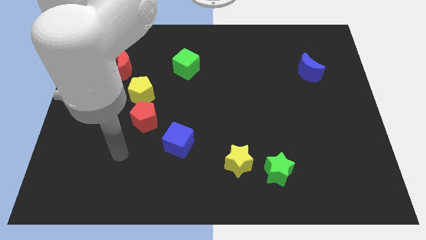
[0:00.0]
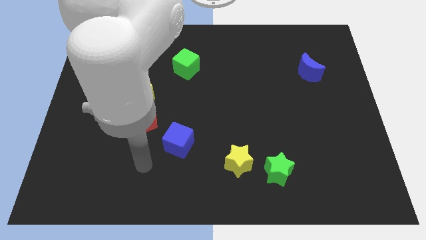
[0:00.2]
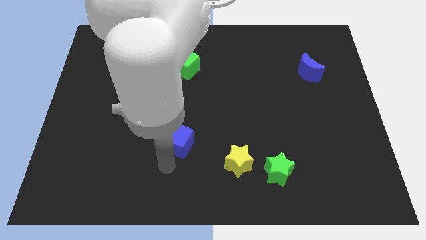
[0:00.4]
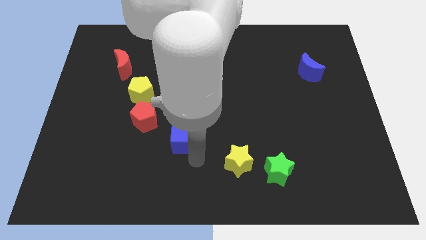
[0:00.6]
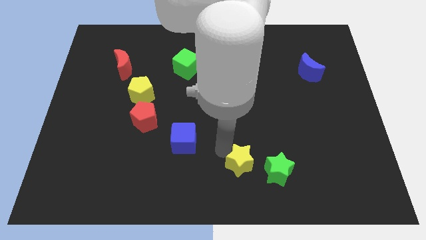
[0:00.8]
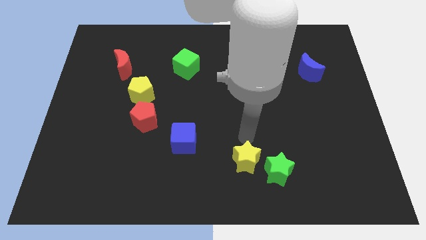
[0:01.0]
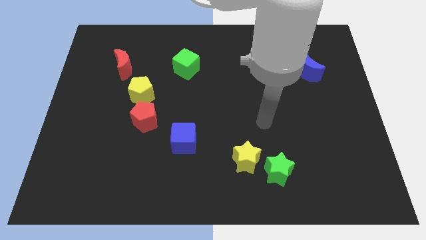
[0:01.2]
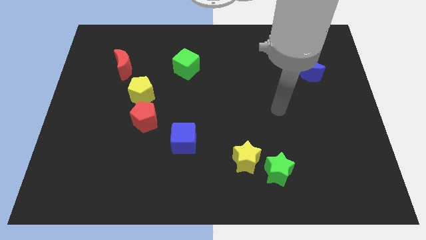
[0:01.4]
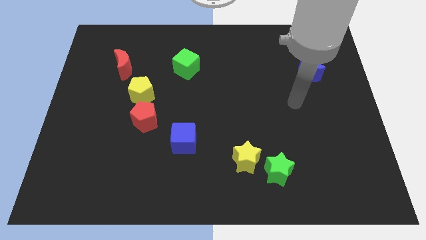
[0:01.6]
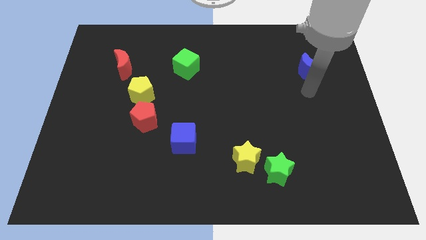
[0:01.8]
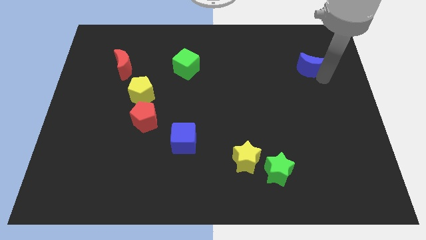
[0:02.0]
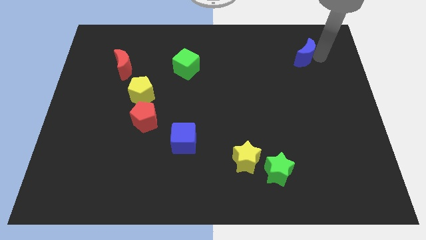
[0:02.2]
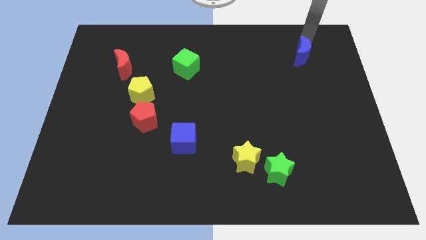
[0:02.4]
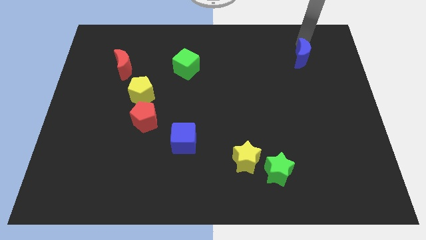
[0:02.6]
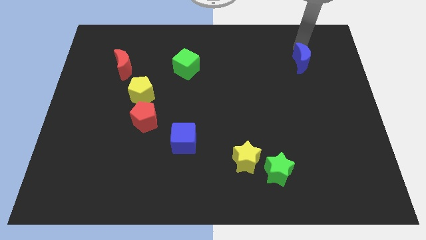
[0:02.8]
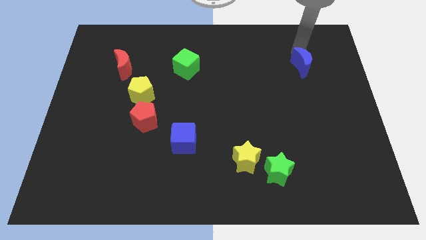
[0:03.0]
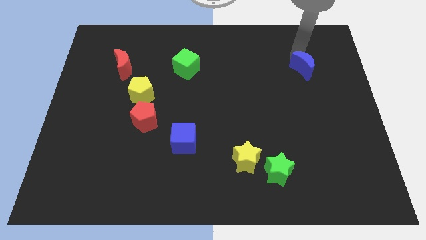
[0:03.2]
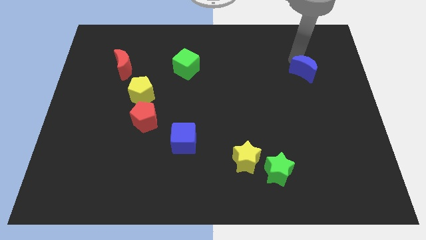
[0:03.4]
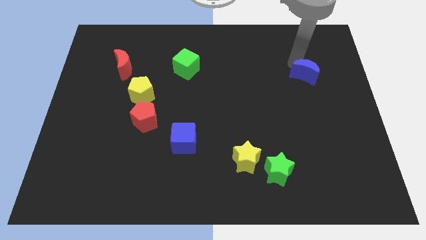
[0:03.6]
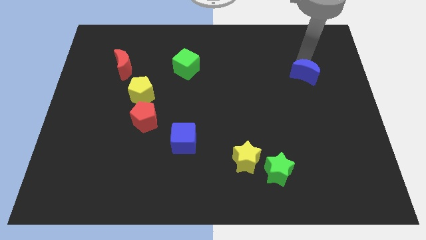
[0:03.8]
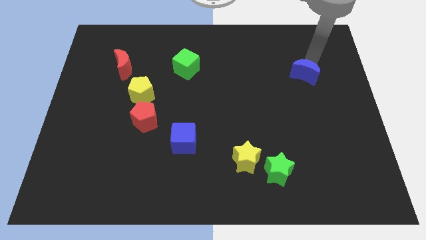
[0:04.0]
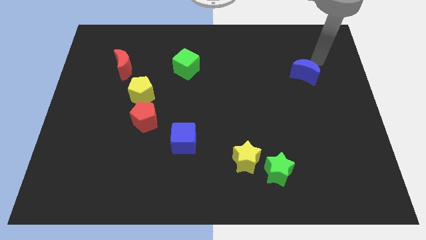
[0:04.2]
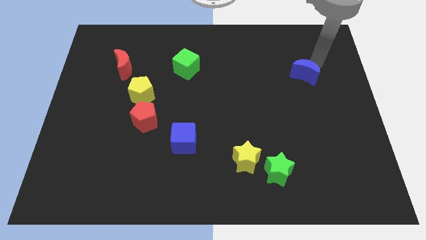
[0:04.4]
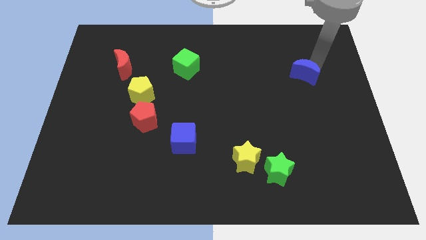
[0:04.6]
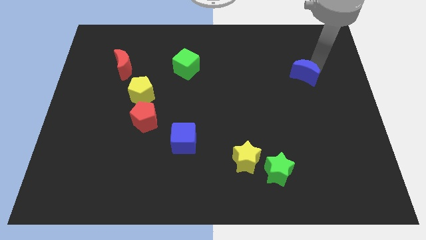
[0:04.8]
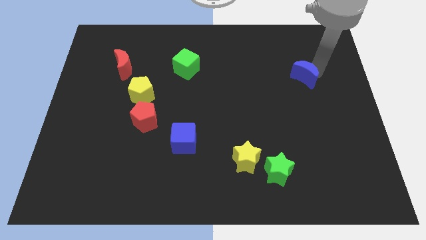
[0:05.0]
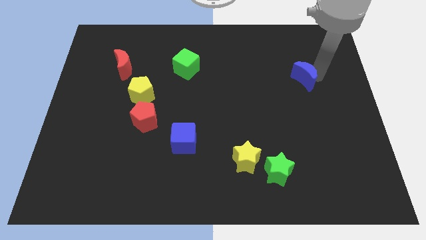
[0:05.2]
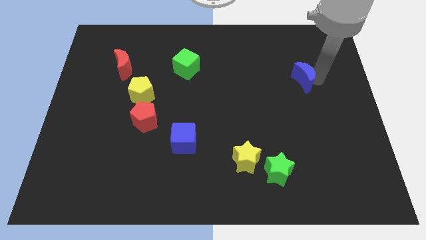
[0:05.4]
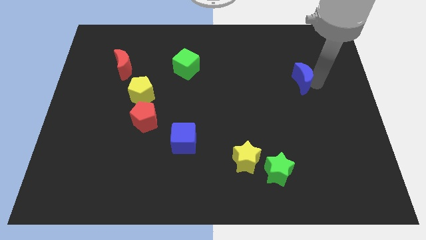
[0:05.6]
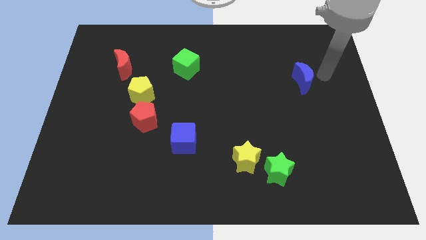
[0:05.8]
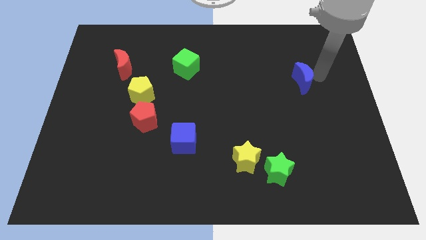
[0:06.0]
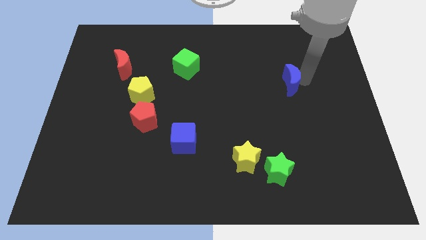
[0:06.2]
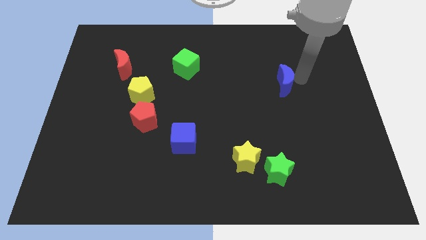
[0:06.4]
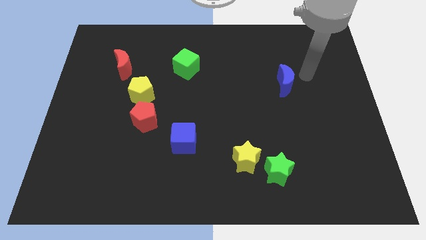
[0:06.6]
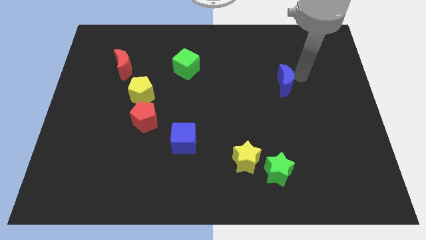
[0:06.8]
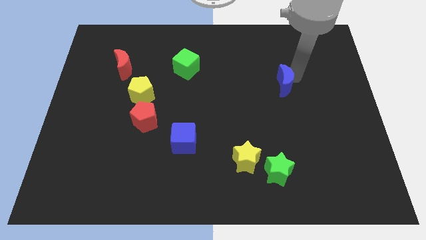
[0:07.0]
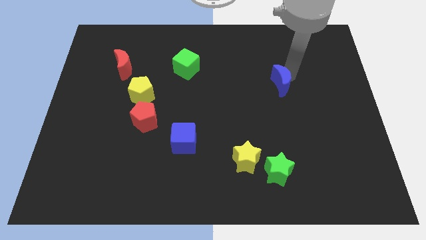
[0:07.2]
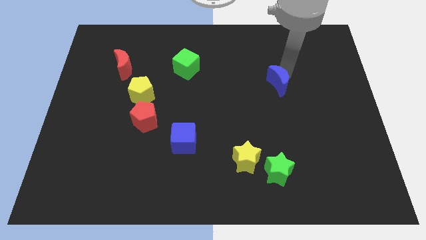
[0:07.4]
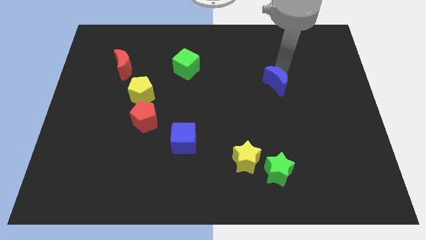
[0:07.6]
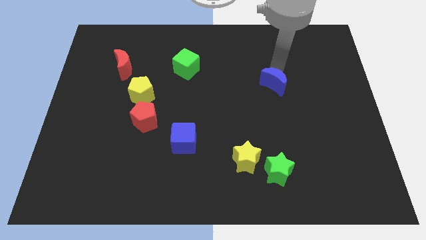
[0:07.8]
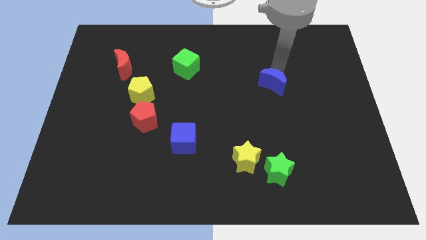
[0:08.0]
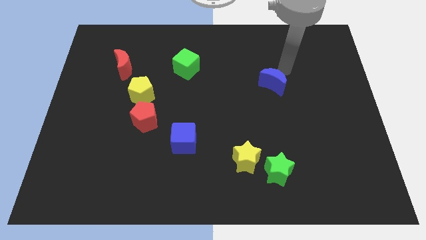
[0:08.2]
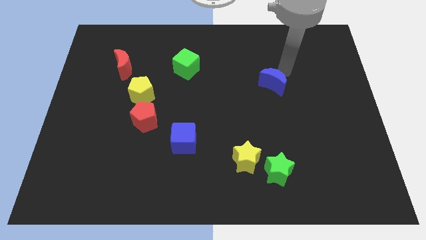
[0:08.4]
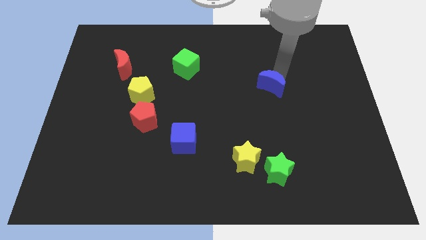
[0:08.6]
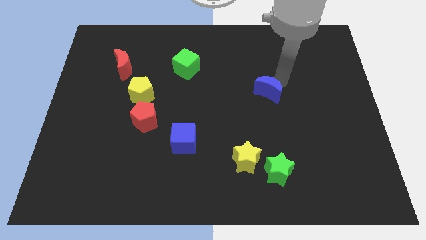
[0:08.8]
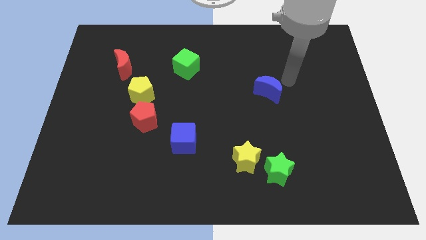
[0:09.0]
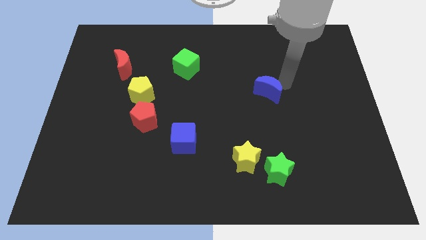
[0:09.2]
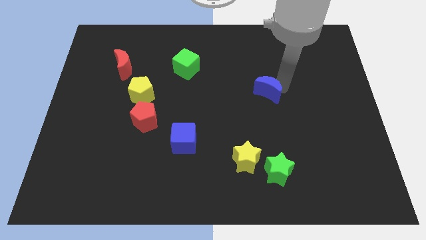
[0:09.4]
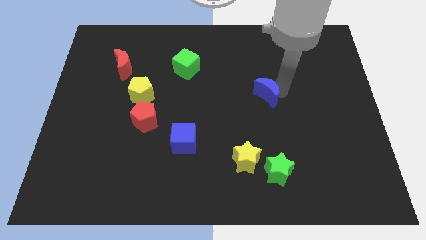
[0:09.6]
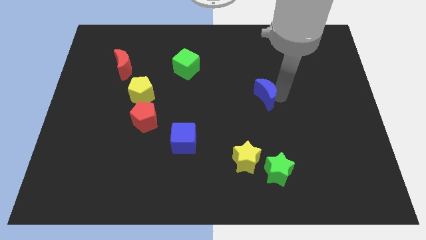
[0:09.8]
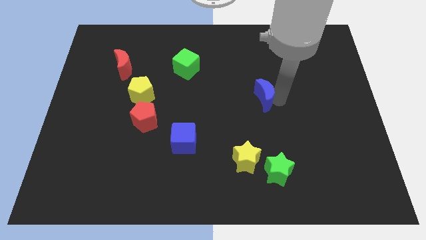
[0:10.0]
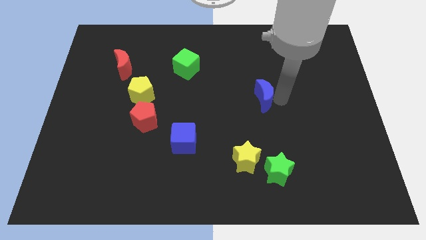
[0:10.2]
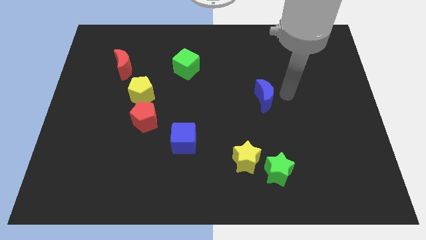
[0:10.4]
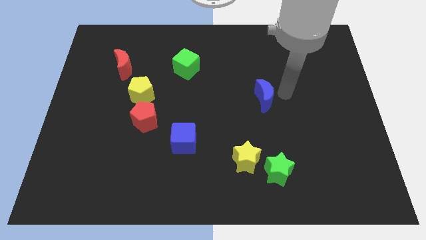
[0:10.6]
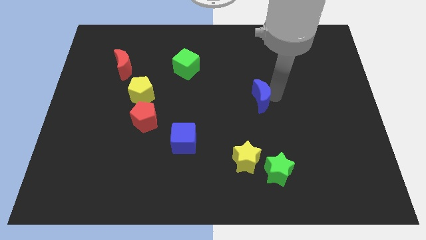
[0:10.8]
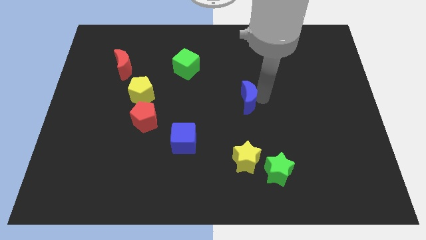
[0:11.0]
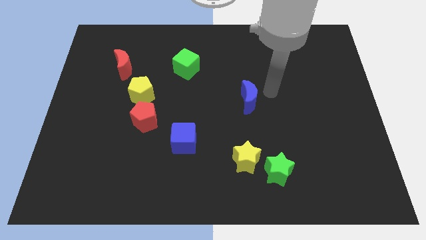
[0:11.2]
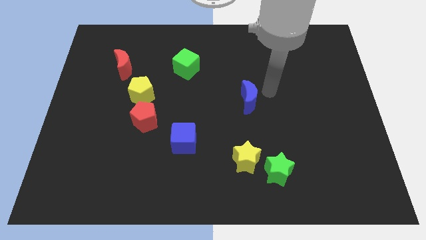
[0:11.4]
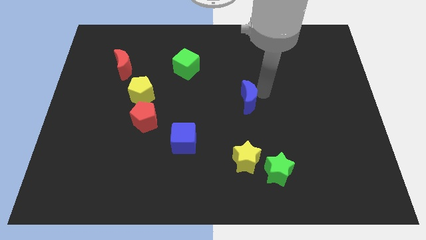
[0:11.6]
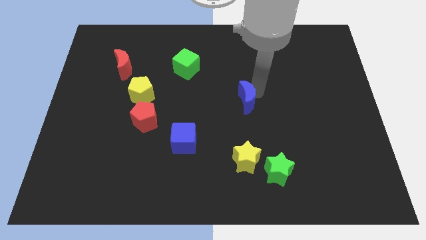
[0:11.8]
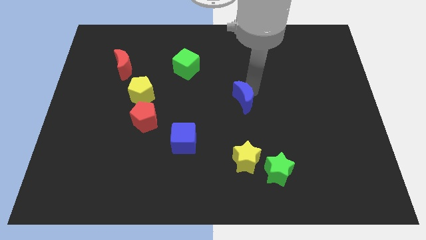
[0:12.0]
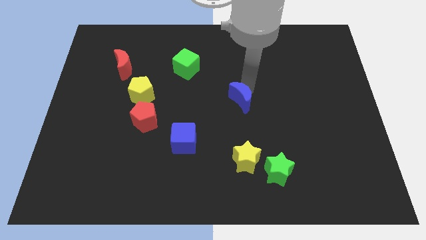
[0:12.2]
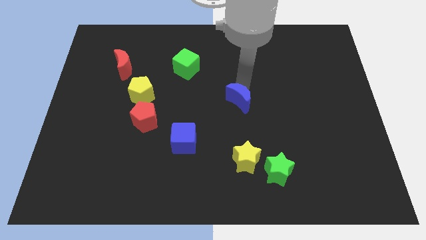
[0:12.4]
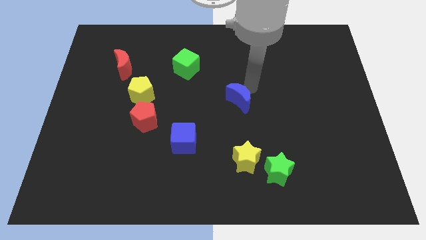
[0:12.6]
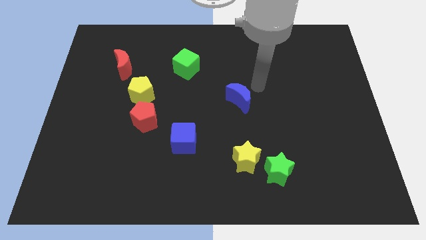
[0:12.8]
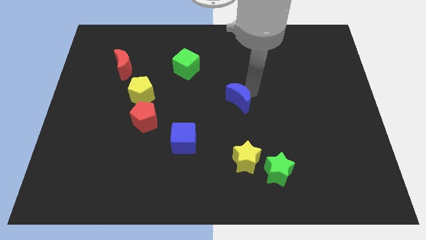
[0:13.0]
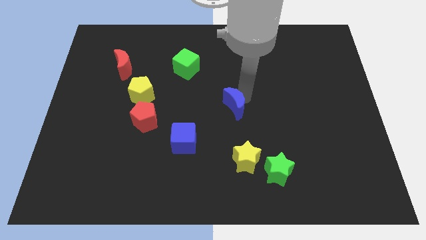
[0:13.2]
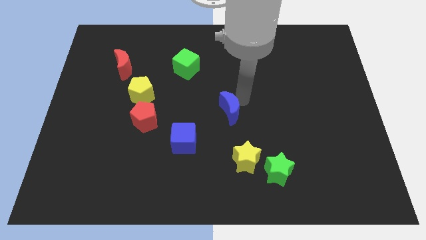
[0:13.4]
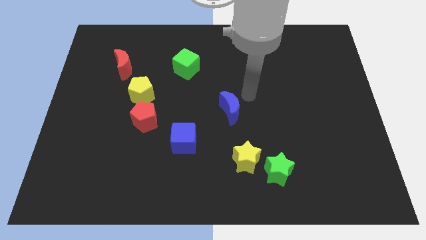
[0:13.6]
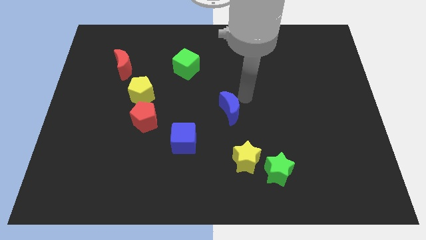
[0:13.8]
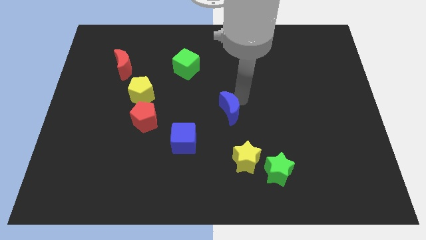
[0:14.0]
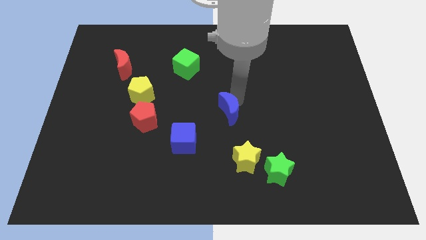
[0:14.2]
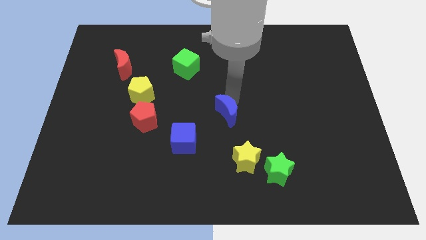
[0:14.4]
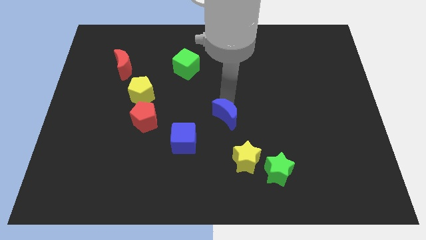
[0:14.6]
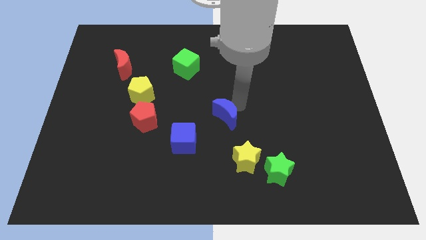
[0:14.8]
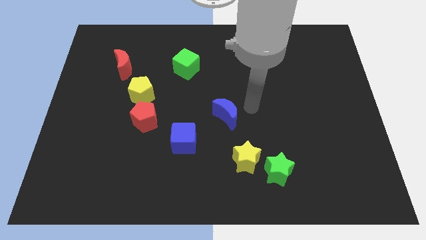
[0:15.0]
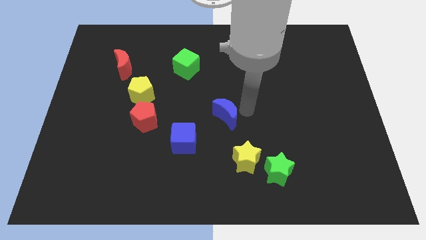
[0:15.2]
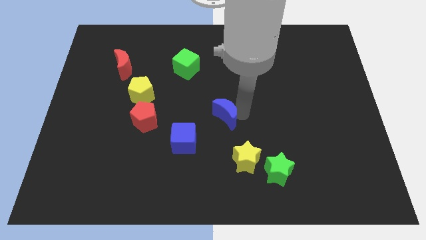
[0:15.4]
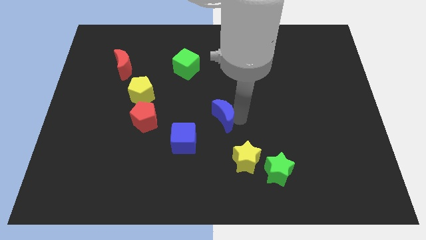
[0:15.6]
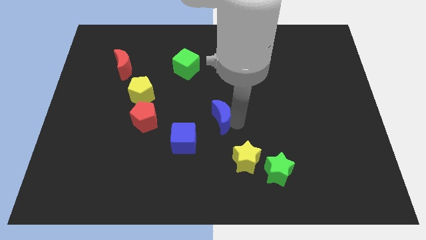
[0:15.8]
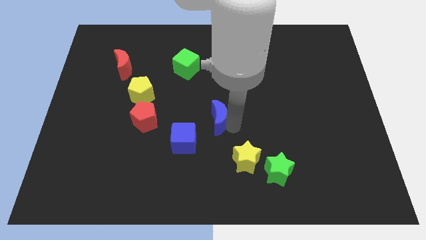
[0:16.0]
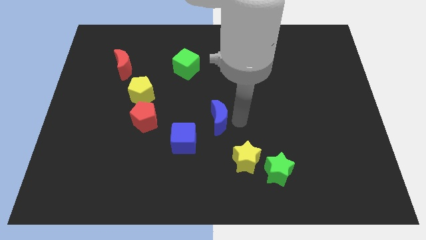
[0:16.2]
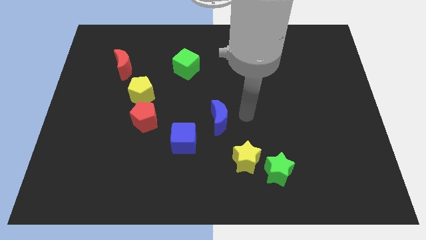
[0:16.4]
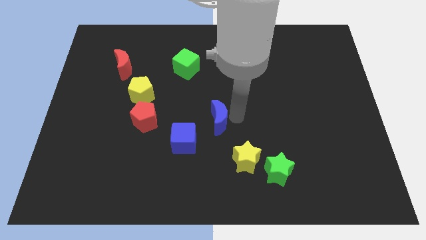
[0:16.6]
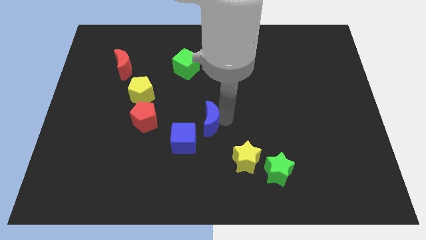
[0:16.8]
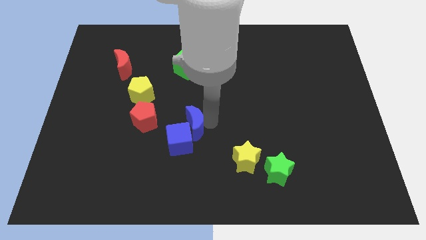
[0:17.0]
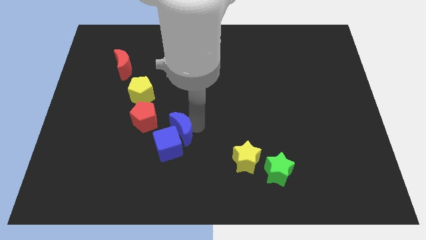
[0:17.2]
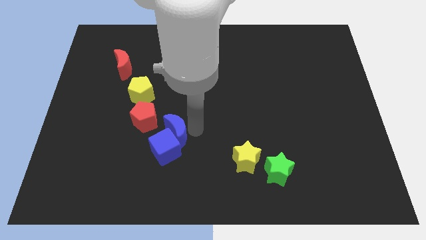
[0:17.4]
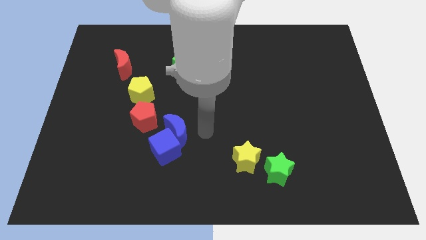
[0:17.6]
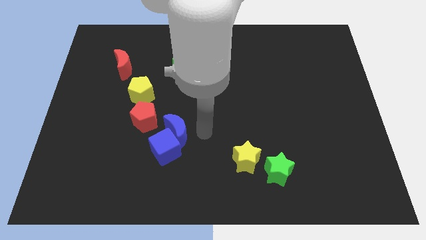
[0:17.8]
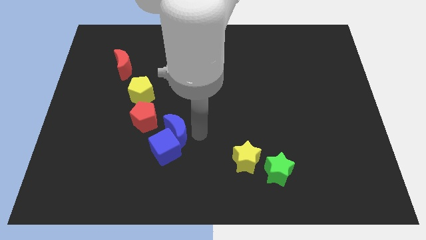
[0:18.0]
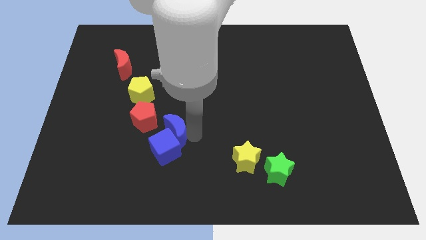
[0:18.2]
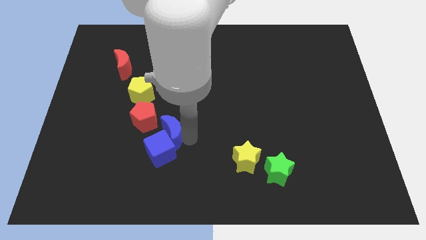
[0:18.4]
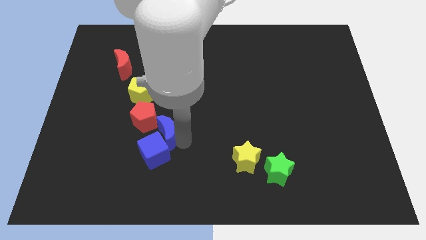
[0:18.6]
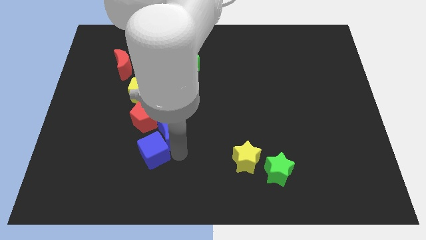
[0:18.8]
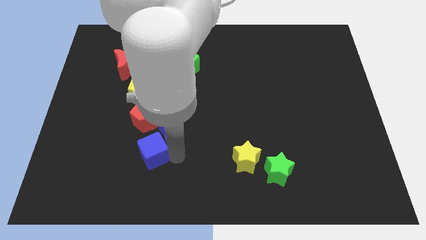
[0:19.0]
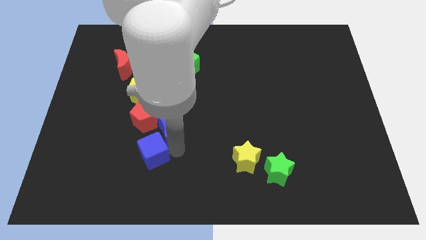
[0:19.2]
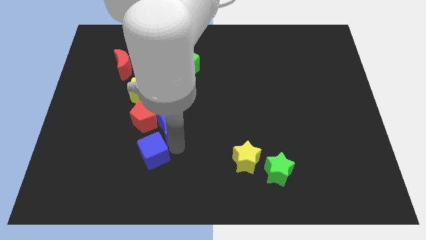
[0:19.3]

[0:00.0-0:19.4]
put the blue moon diagonally down and to the right of the yellow pentagon
